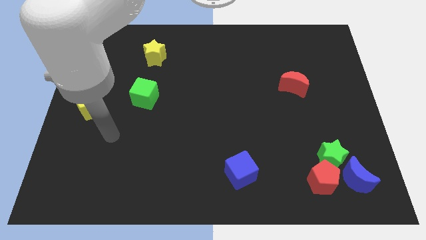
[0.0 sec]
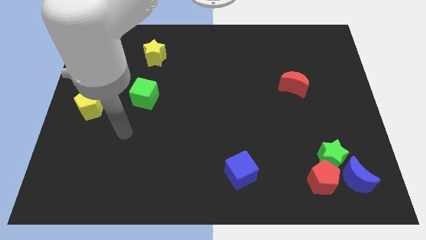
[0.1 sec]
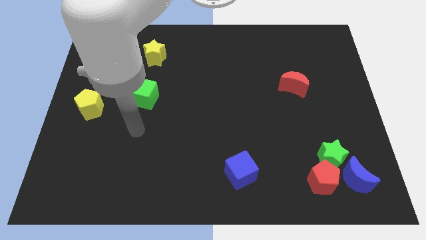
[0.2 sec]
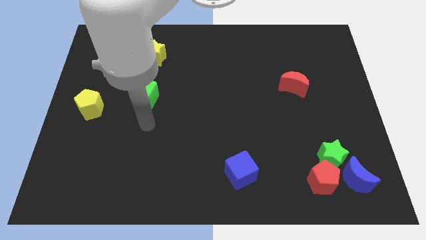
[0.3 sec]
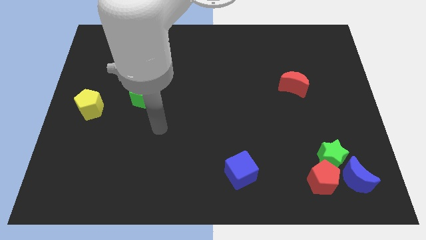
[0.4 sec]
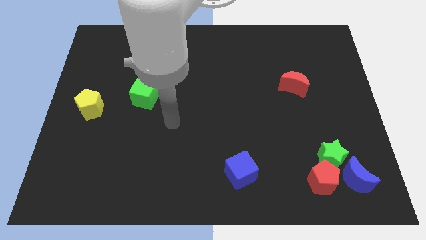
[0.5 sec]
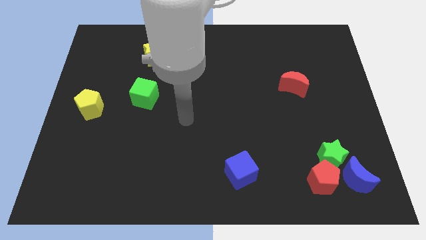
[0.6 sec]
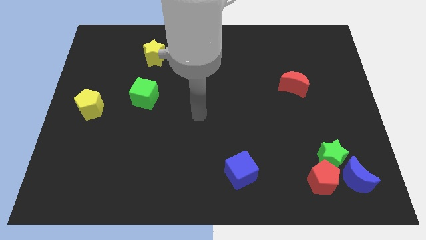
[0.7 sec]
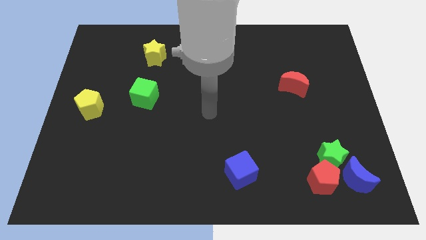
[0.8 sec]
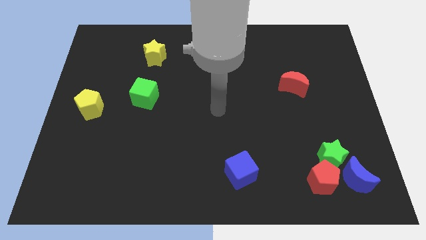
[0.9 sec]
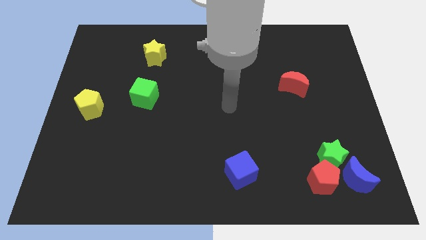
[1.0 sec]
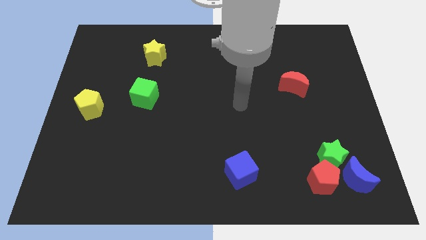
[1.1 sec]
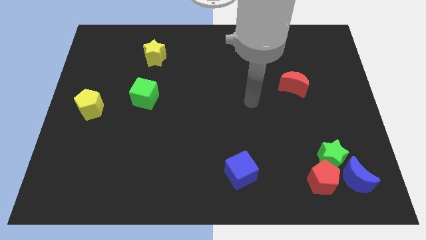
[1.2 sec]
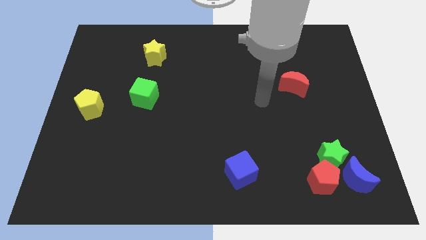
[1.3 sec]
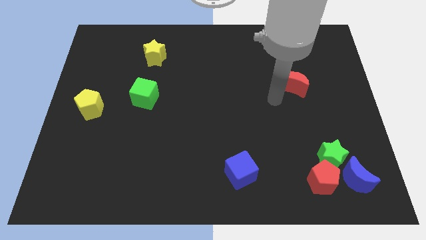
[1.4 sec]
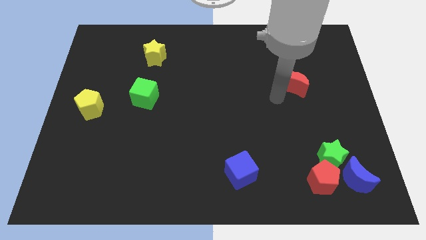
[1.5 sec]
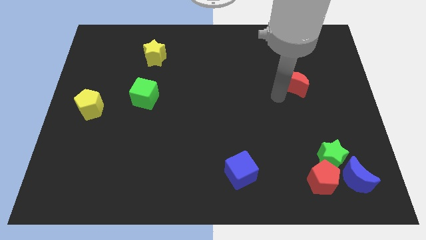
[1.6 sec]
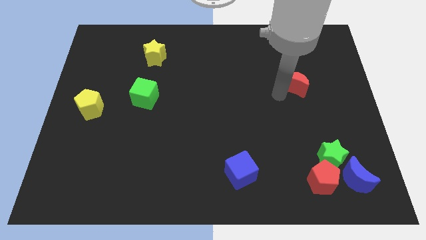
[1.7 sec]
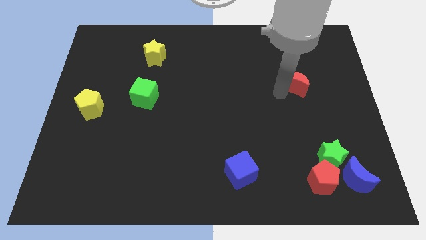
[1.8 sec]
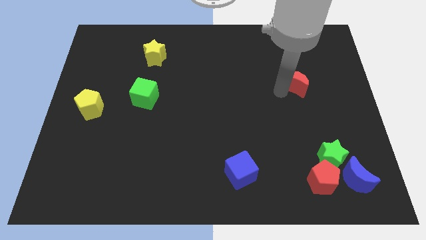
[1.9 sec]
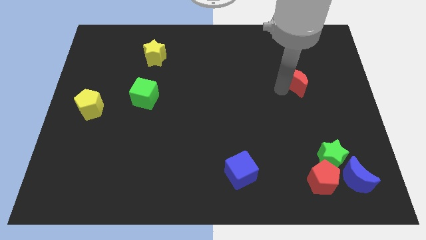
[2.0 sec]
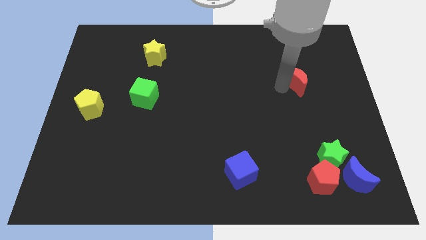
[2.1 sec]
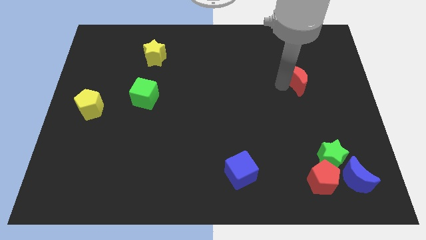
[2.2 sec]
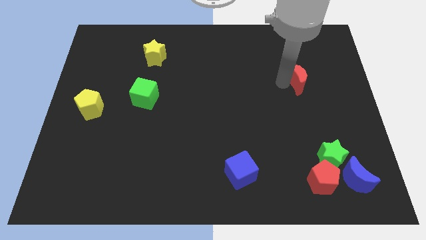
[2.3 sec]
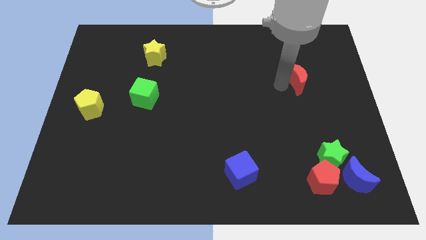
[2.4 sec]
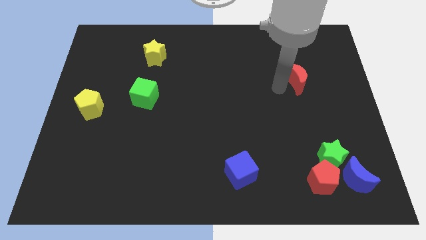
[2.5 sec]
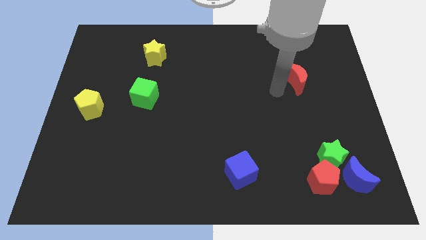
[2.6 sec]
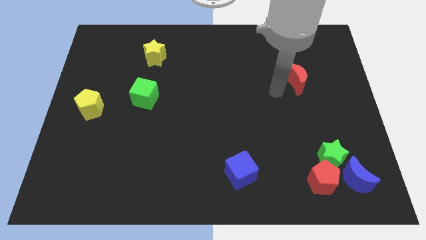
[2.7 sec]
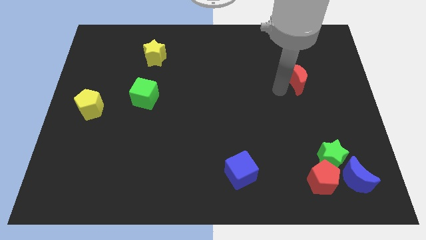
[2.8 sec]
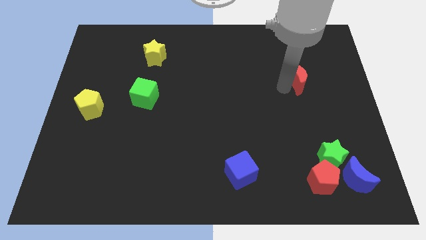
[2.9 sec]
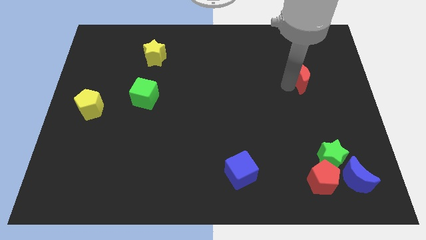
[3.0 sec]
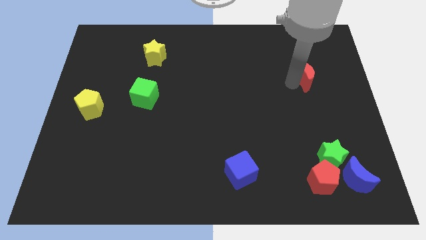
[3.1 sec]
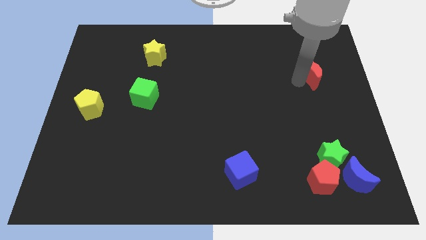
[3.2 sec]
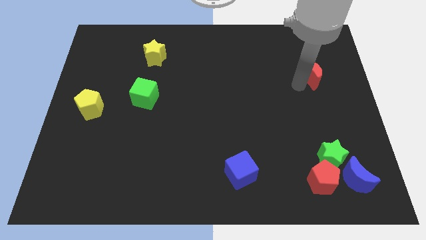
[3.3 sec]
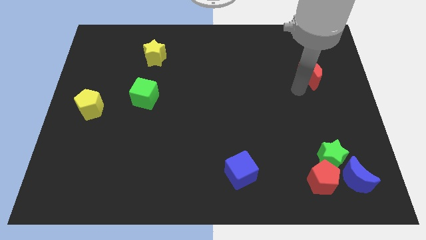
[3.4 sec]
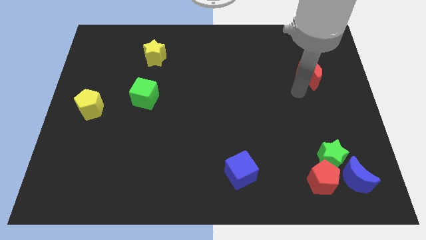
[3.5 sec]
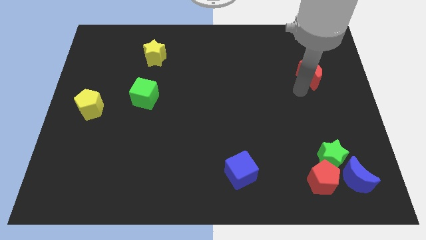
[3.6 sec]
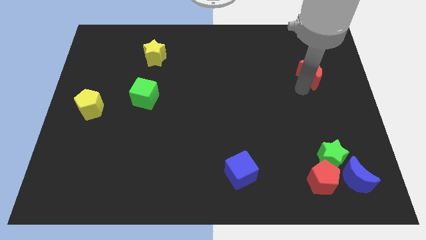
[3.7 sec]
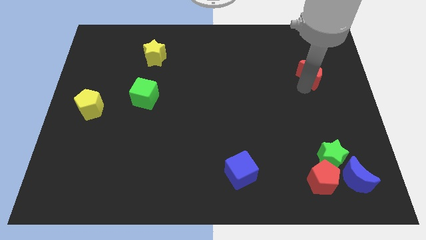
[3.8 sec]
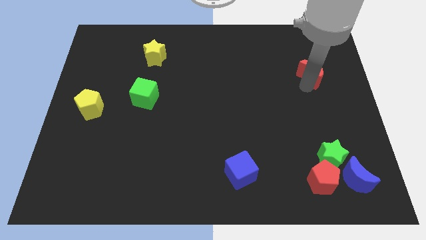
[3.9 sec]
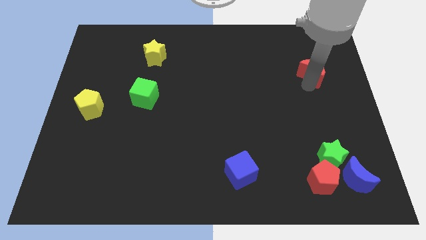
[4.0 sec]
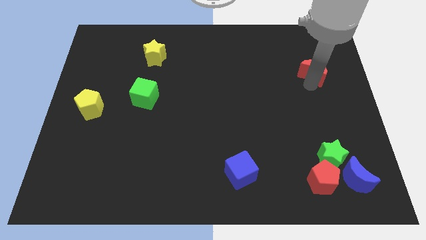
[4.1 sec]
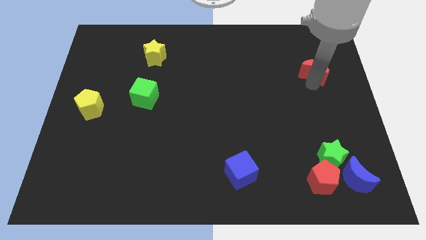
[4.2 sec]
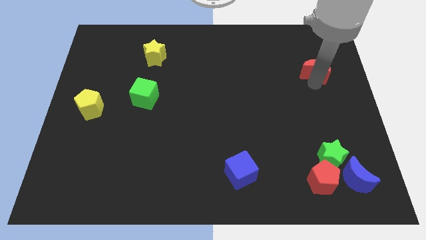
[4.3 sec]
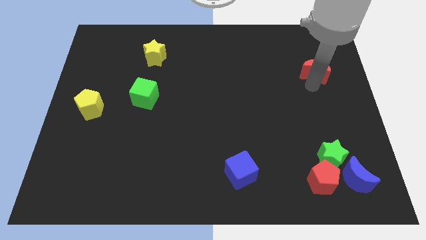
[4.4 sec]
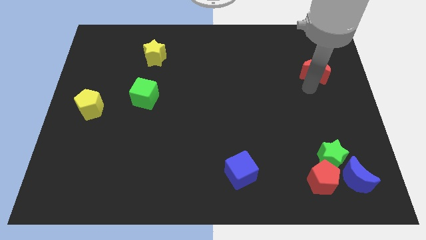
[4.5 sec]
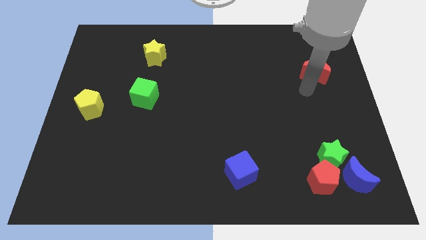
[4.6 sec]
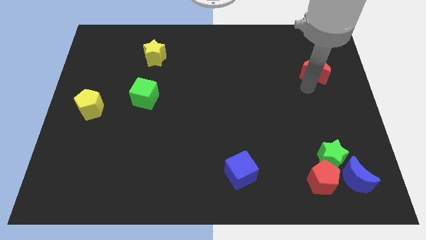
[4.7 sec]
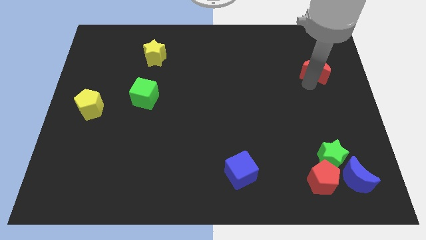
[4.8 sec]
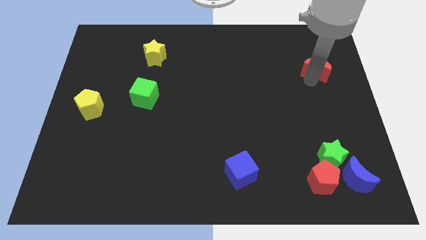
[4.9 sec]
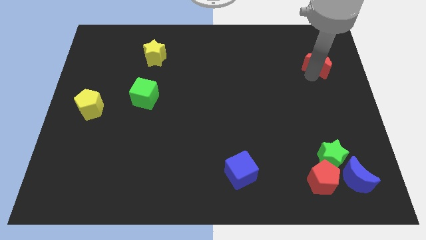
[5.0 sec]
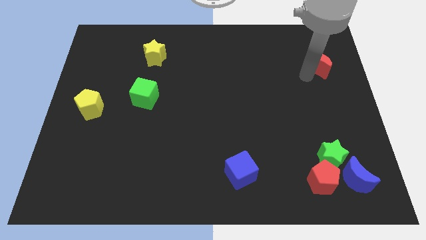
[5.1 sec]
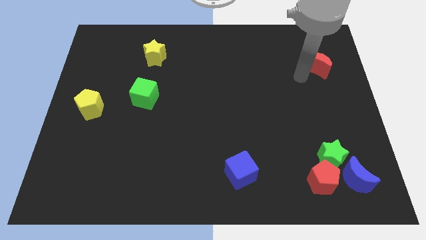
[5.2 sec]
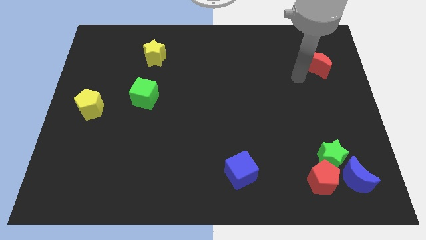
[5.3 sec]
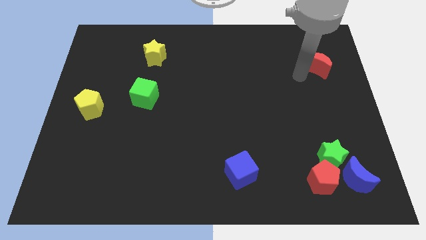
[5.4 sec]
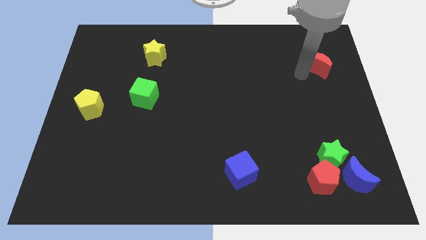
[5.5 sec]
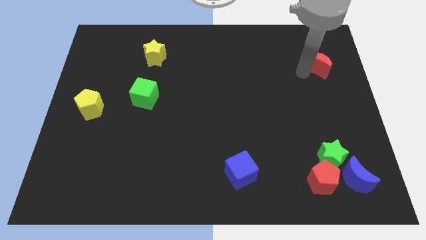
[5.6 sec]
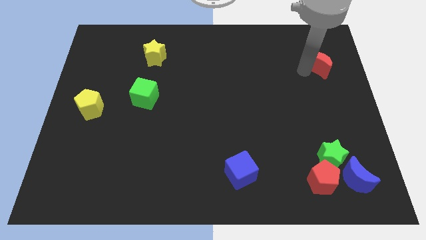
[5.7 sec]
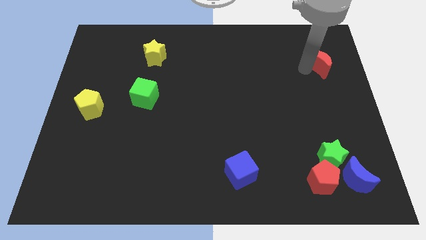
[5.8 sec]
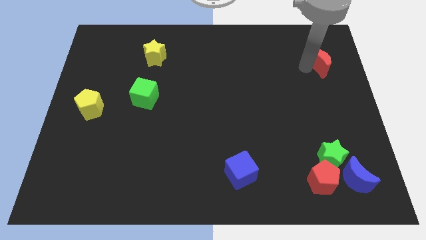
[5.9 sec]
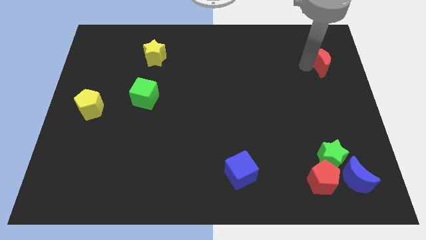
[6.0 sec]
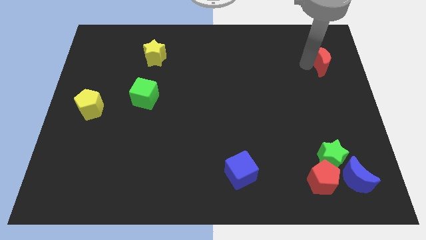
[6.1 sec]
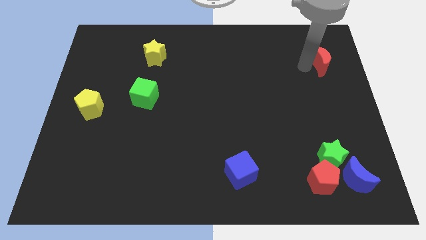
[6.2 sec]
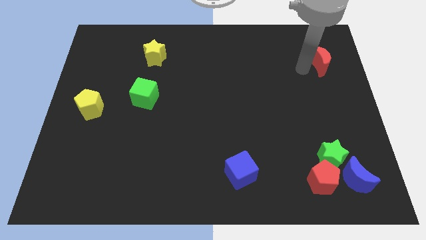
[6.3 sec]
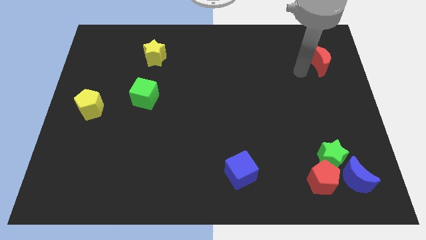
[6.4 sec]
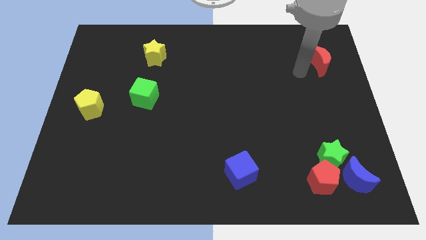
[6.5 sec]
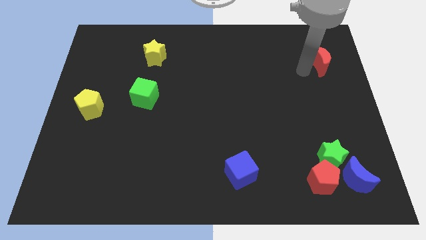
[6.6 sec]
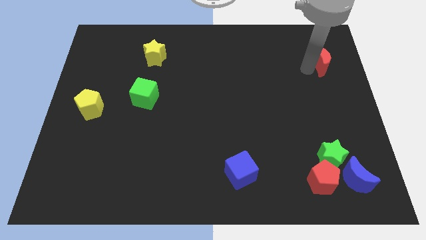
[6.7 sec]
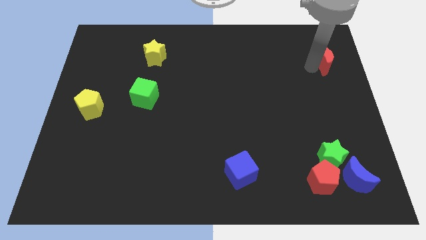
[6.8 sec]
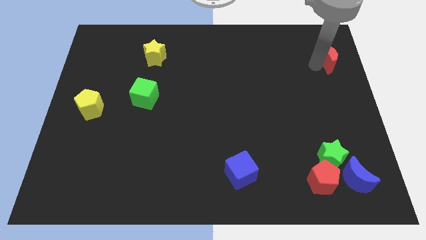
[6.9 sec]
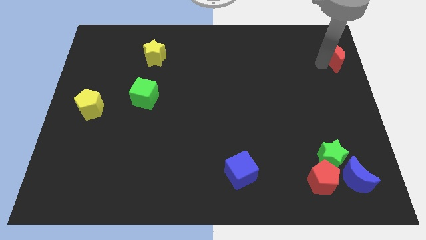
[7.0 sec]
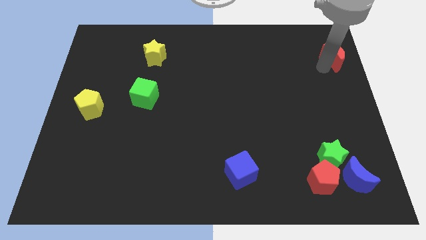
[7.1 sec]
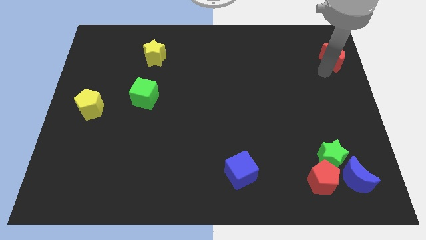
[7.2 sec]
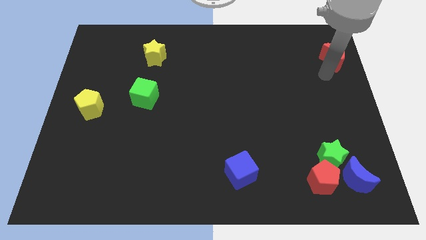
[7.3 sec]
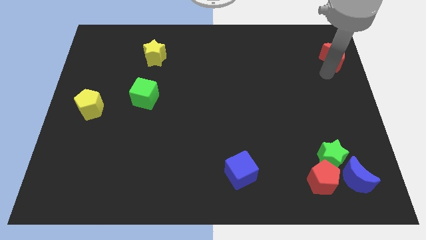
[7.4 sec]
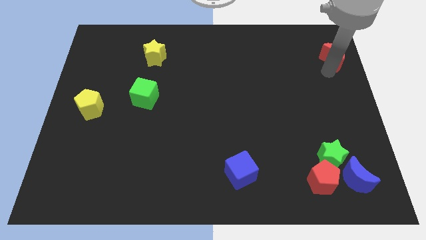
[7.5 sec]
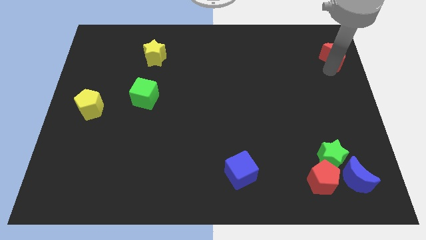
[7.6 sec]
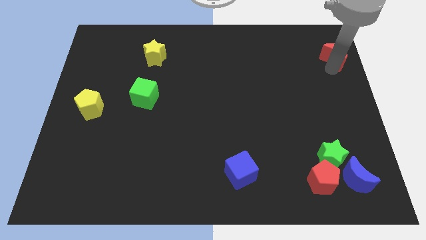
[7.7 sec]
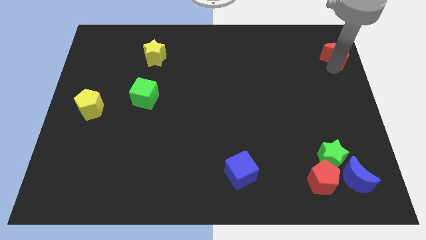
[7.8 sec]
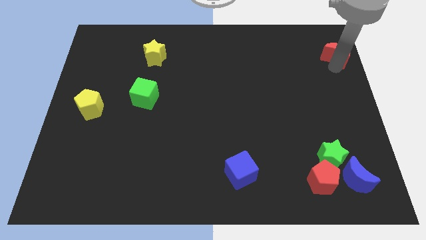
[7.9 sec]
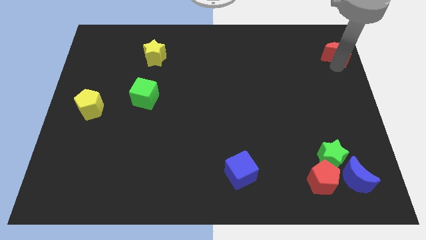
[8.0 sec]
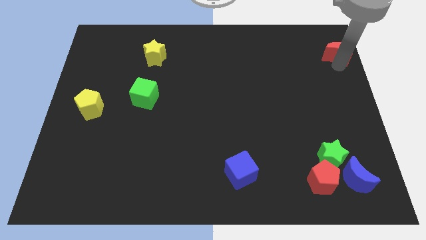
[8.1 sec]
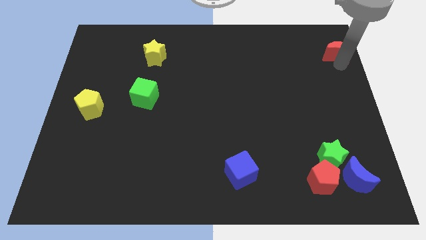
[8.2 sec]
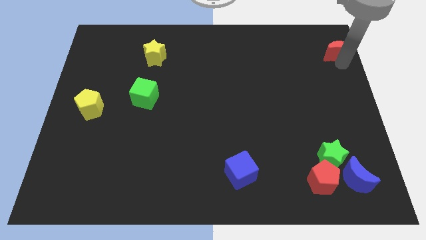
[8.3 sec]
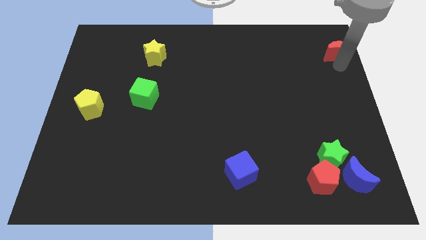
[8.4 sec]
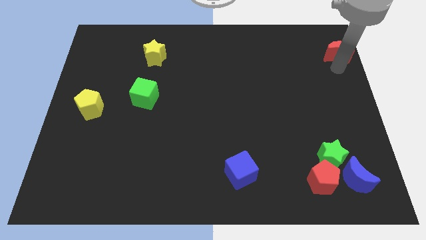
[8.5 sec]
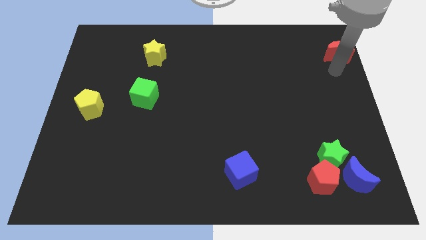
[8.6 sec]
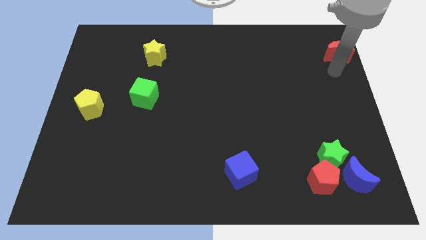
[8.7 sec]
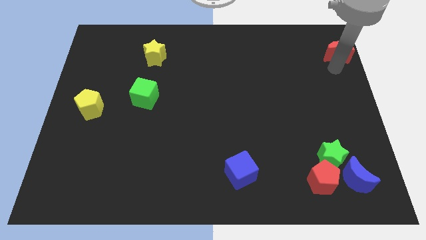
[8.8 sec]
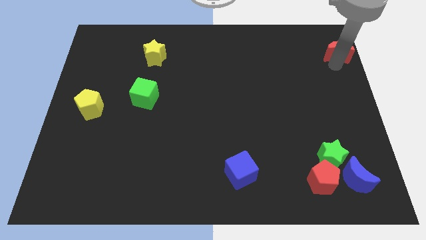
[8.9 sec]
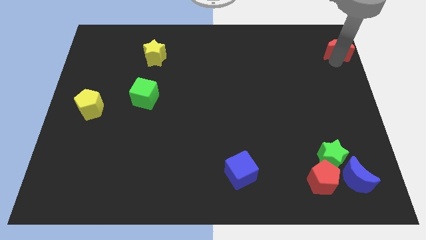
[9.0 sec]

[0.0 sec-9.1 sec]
move the red moon to the upper right corner
